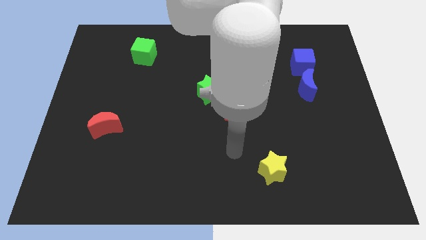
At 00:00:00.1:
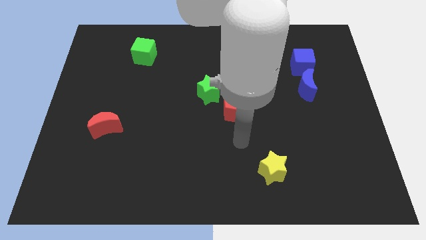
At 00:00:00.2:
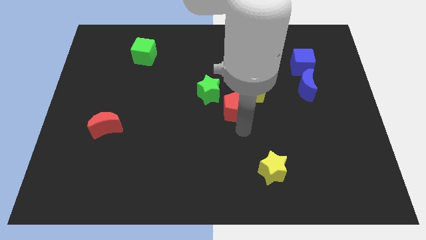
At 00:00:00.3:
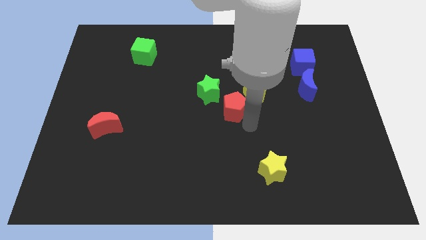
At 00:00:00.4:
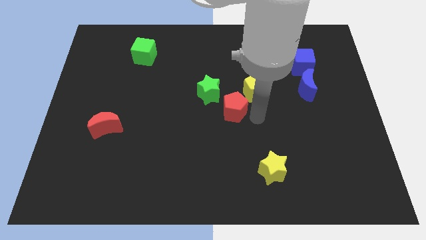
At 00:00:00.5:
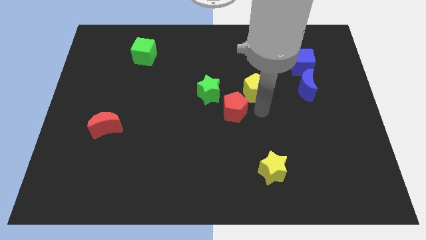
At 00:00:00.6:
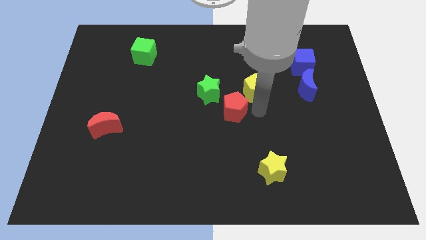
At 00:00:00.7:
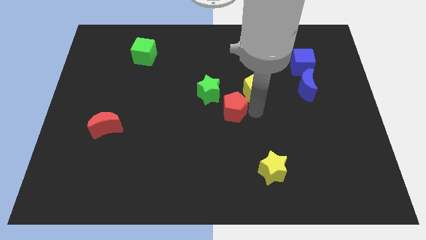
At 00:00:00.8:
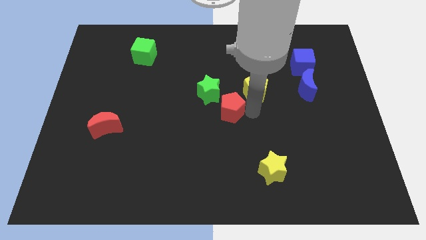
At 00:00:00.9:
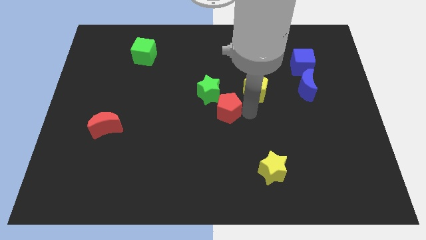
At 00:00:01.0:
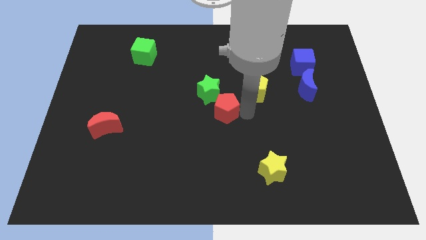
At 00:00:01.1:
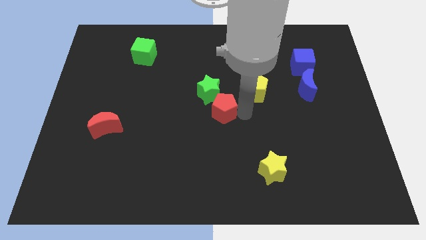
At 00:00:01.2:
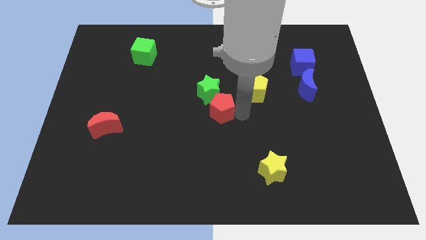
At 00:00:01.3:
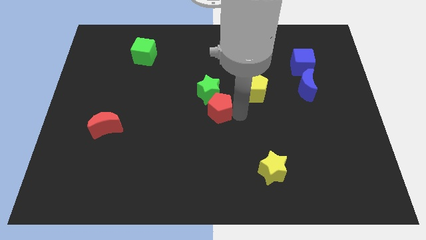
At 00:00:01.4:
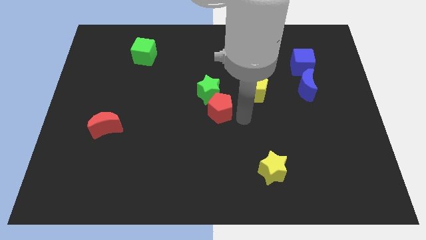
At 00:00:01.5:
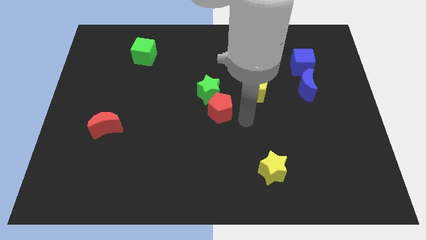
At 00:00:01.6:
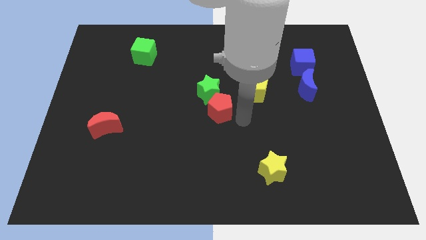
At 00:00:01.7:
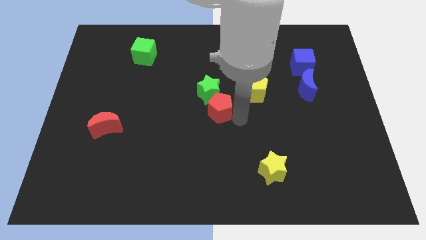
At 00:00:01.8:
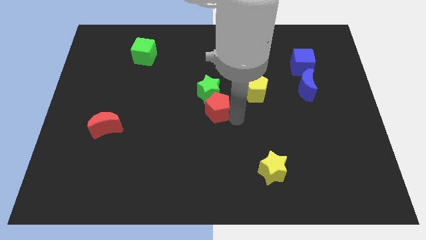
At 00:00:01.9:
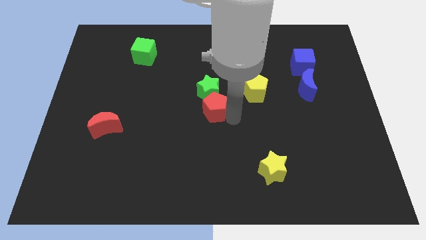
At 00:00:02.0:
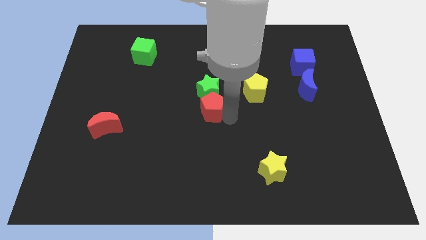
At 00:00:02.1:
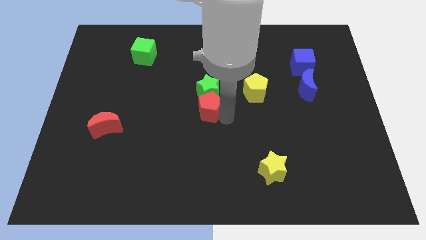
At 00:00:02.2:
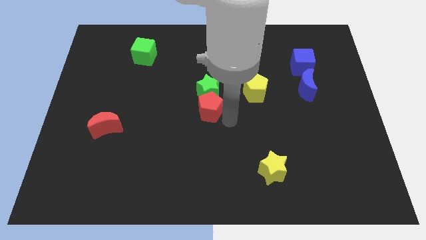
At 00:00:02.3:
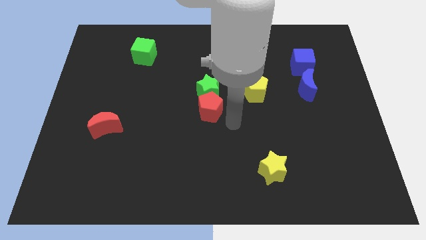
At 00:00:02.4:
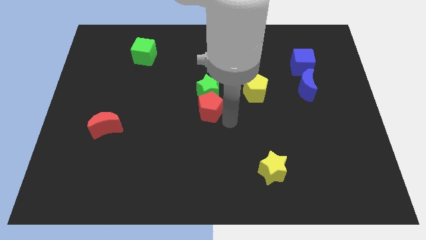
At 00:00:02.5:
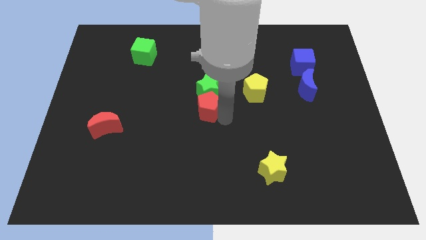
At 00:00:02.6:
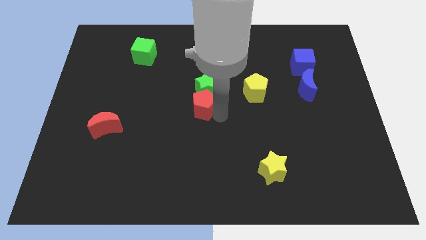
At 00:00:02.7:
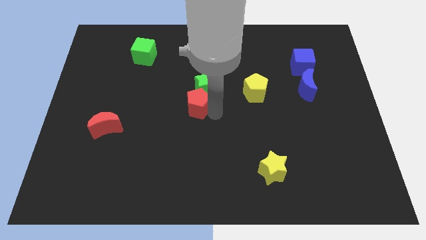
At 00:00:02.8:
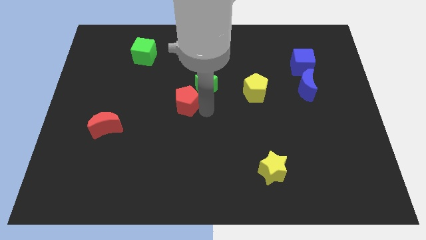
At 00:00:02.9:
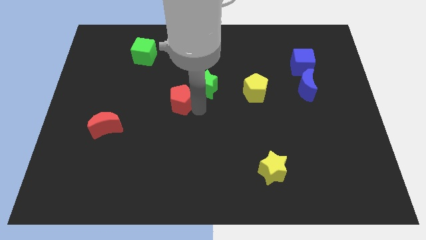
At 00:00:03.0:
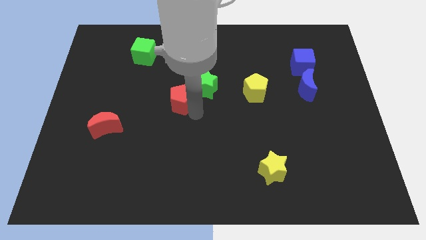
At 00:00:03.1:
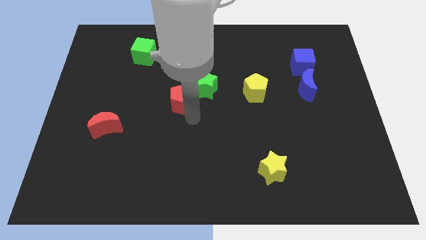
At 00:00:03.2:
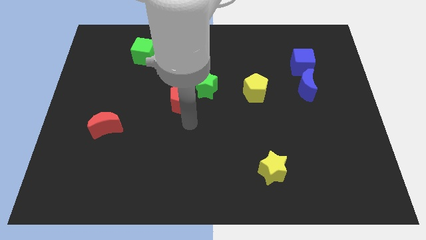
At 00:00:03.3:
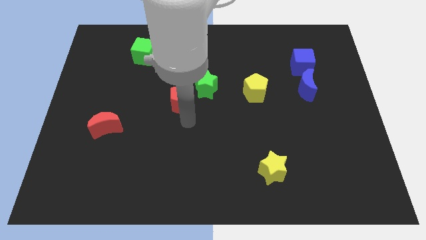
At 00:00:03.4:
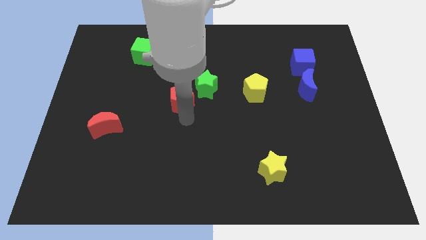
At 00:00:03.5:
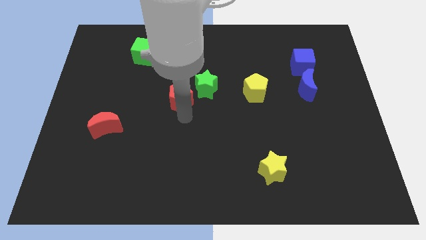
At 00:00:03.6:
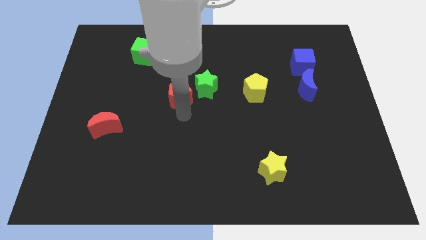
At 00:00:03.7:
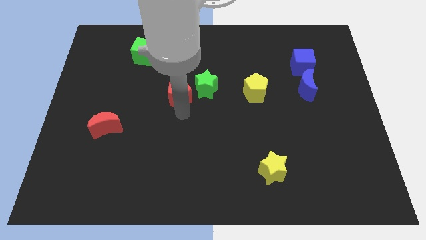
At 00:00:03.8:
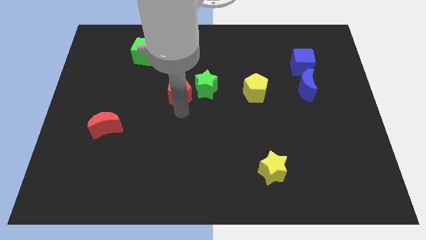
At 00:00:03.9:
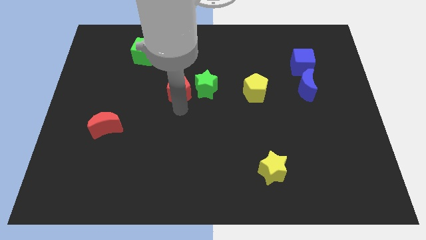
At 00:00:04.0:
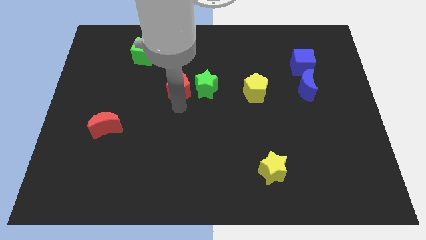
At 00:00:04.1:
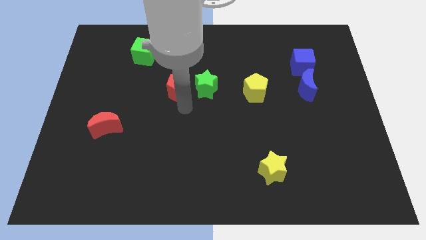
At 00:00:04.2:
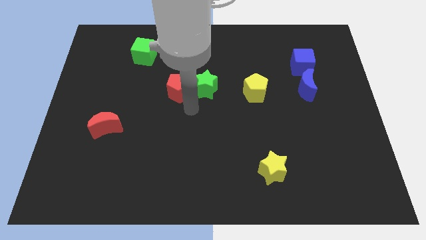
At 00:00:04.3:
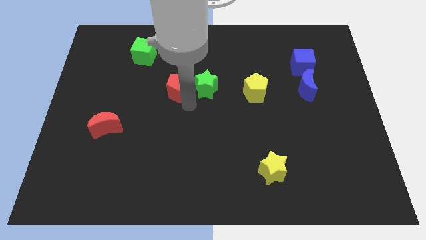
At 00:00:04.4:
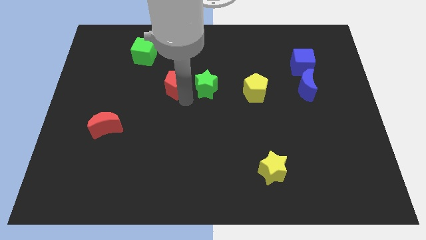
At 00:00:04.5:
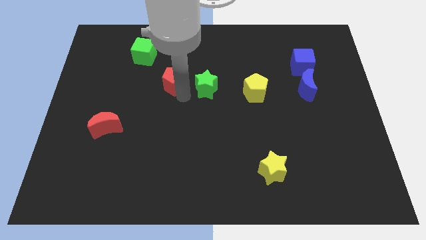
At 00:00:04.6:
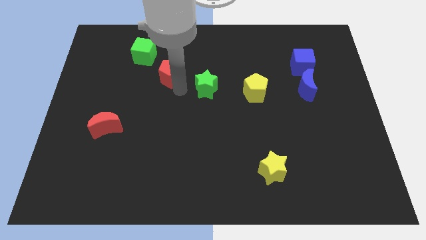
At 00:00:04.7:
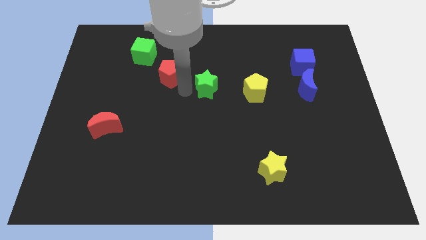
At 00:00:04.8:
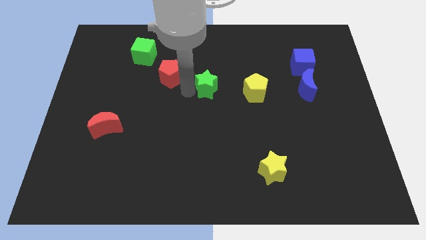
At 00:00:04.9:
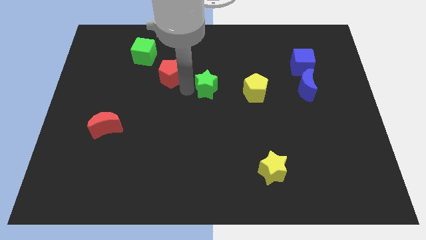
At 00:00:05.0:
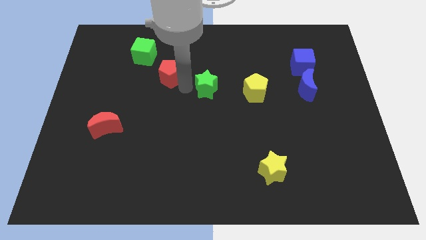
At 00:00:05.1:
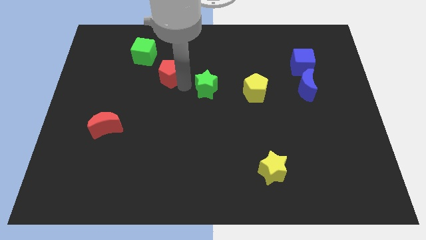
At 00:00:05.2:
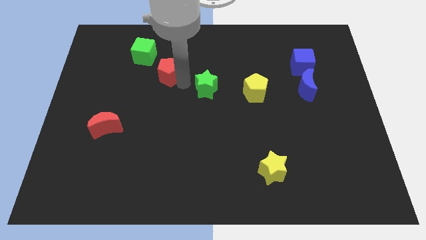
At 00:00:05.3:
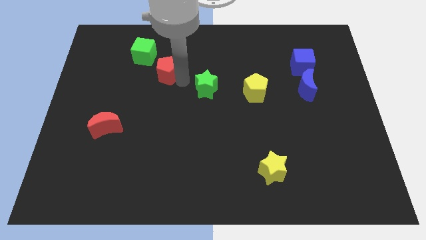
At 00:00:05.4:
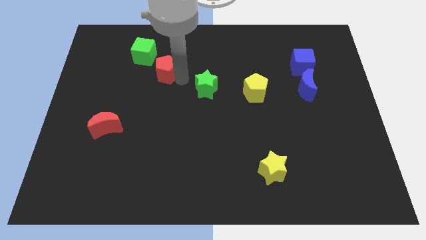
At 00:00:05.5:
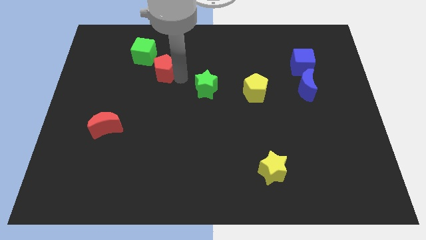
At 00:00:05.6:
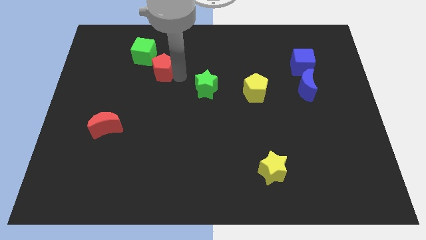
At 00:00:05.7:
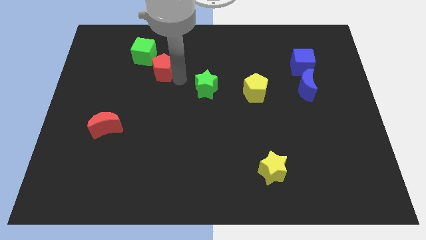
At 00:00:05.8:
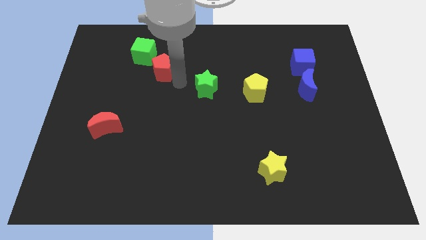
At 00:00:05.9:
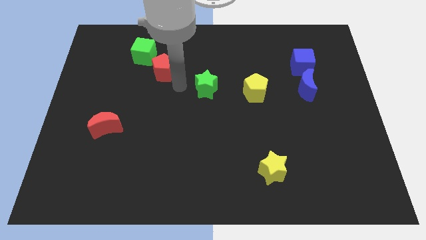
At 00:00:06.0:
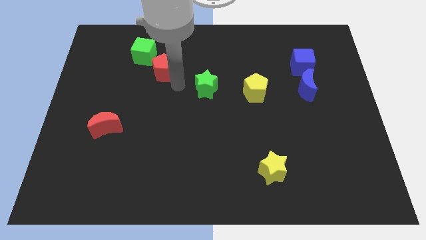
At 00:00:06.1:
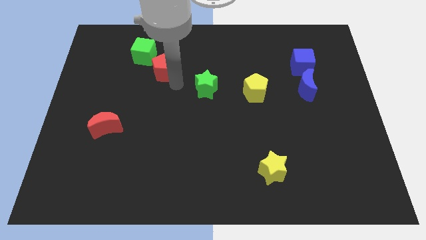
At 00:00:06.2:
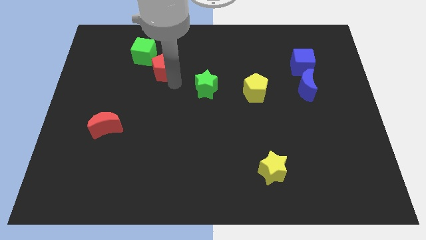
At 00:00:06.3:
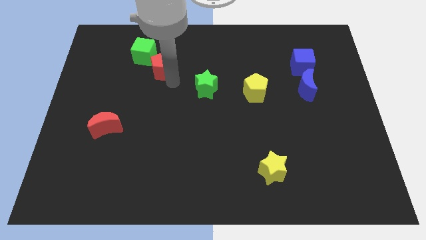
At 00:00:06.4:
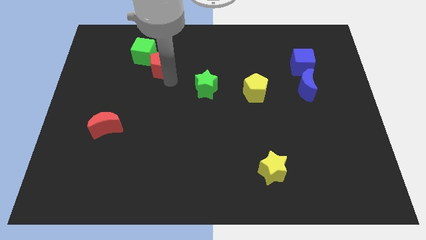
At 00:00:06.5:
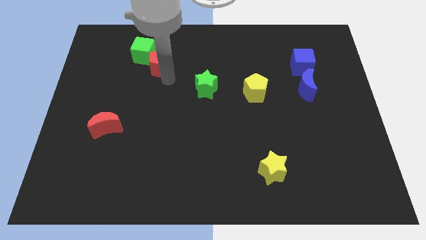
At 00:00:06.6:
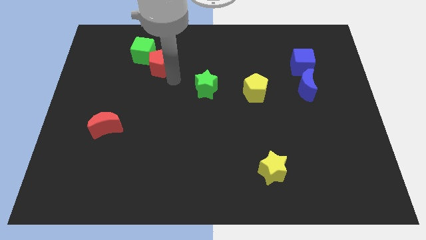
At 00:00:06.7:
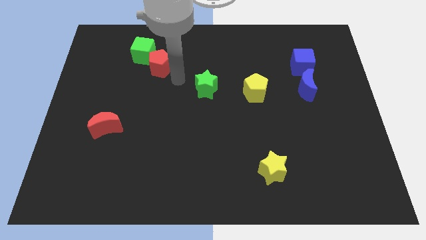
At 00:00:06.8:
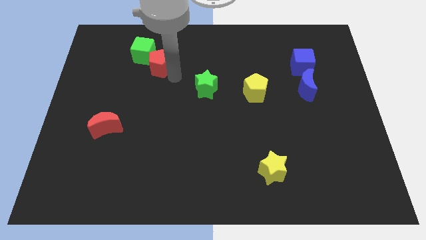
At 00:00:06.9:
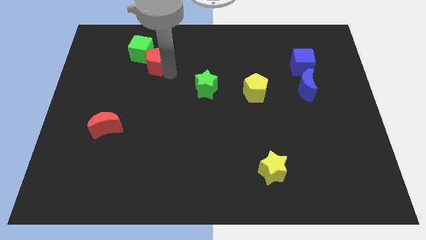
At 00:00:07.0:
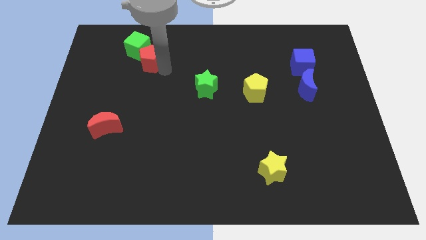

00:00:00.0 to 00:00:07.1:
slide the red pentagon next to the green cube

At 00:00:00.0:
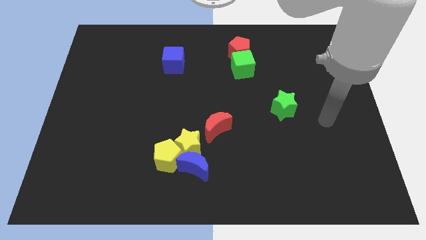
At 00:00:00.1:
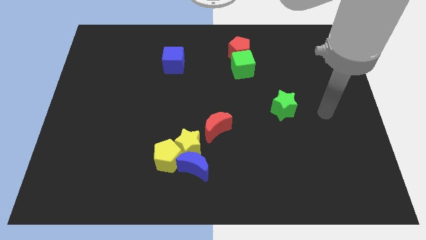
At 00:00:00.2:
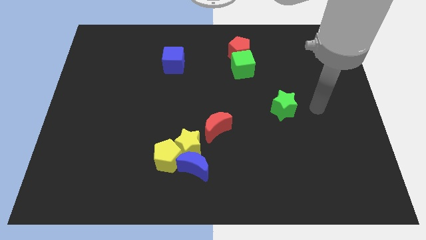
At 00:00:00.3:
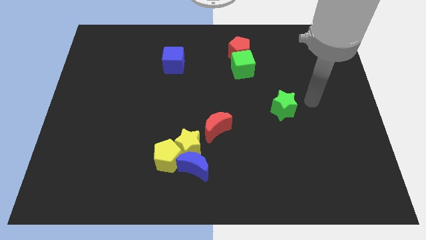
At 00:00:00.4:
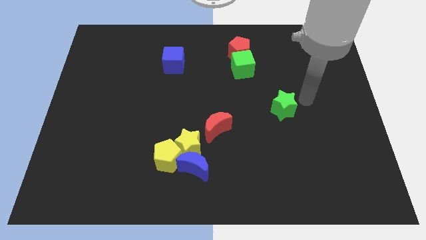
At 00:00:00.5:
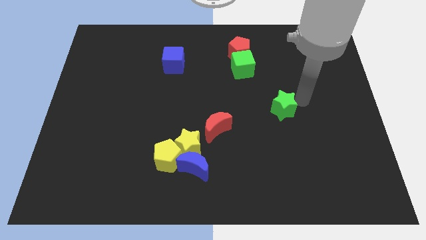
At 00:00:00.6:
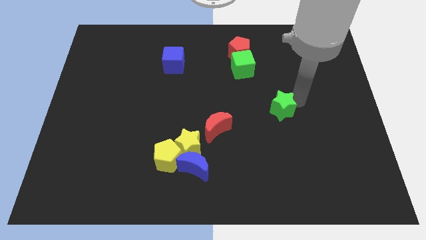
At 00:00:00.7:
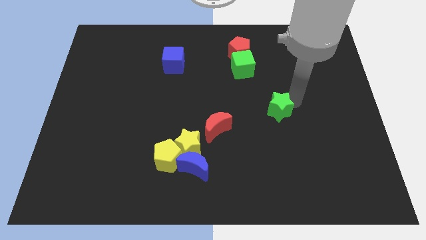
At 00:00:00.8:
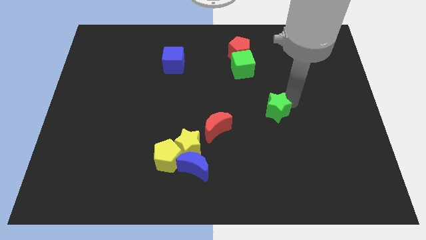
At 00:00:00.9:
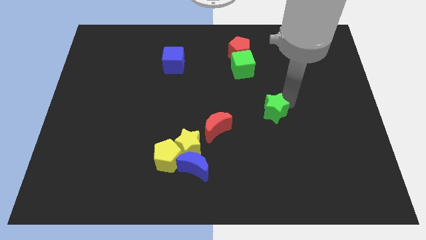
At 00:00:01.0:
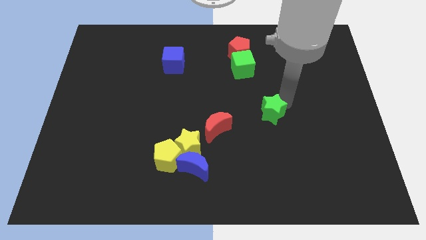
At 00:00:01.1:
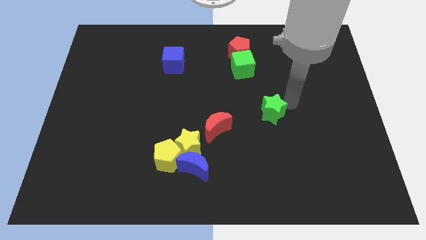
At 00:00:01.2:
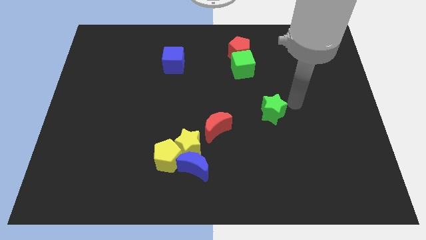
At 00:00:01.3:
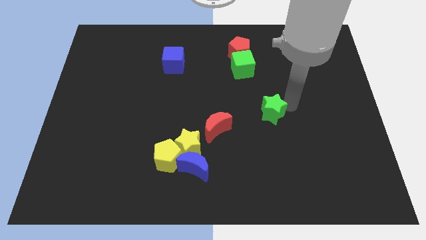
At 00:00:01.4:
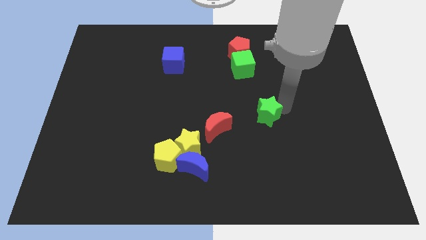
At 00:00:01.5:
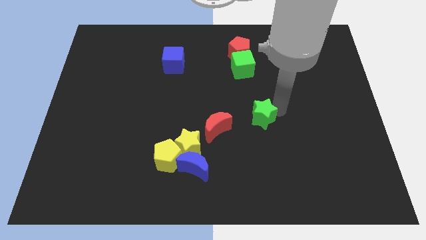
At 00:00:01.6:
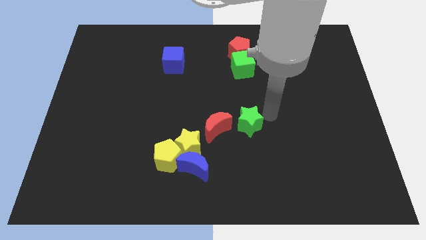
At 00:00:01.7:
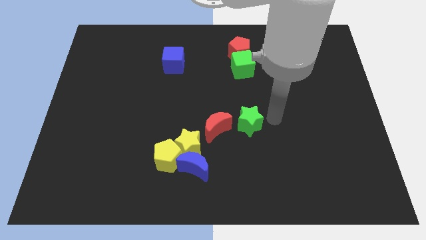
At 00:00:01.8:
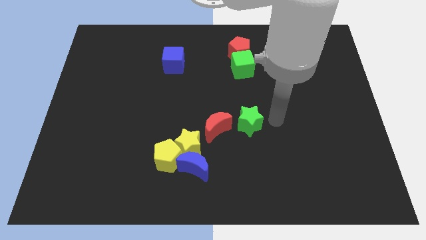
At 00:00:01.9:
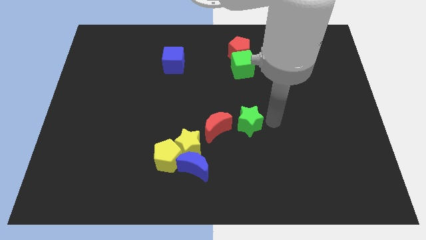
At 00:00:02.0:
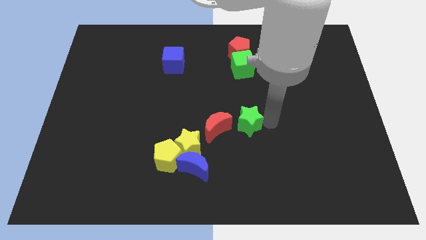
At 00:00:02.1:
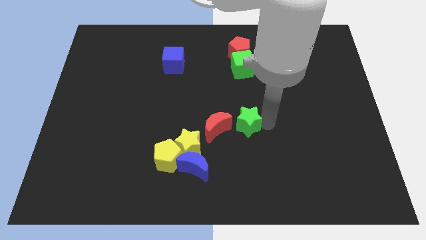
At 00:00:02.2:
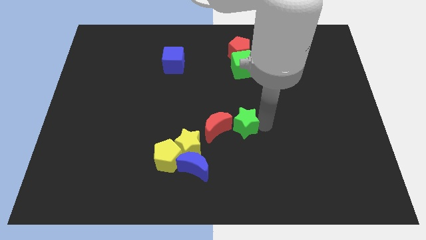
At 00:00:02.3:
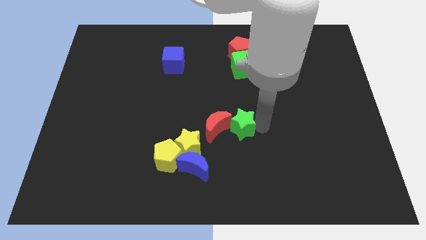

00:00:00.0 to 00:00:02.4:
put the green star to the red moon
